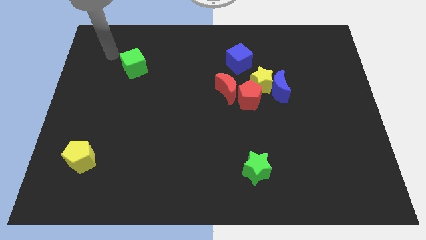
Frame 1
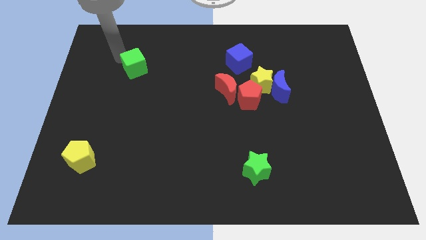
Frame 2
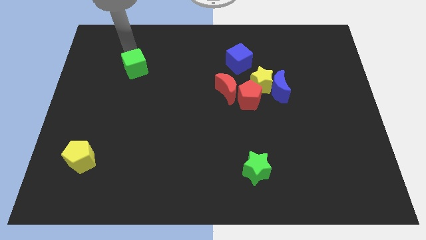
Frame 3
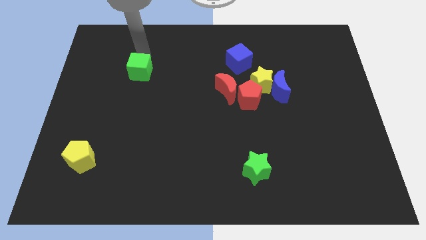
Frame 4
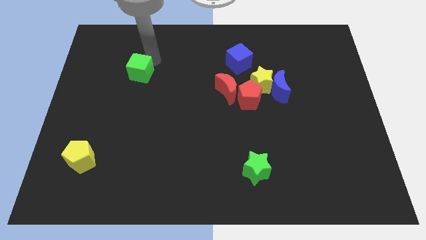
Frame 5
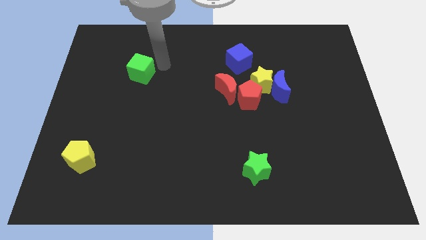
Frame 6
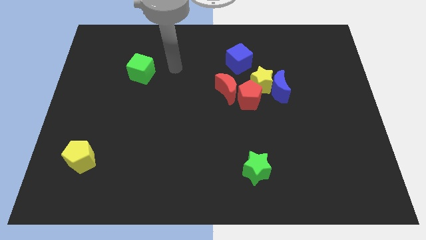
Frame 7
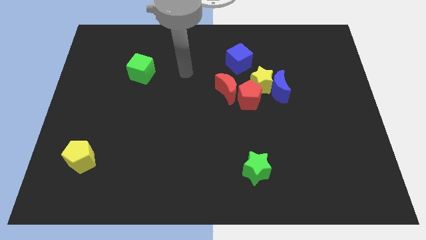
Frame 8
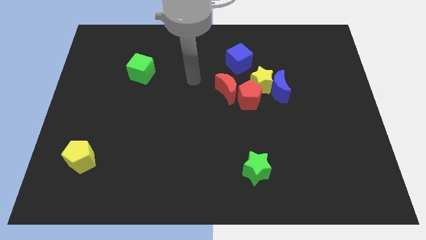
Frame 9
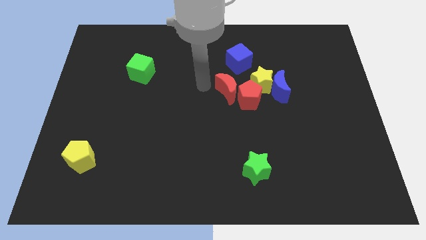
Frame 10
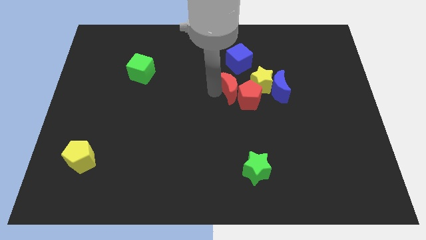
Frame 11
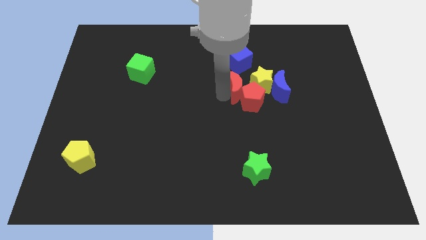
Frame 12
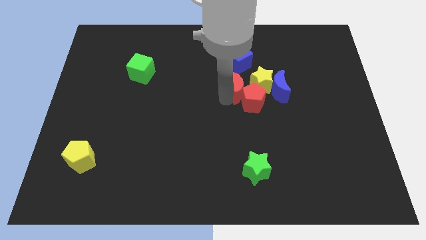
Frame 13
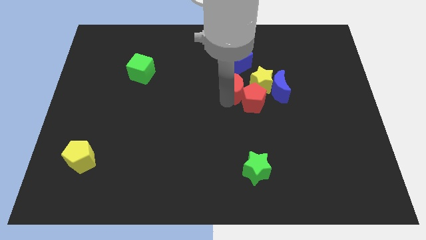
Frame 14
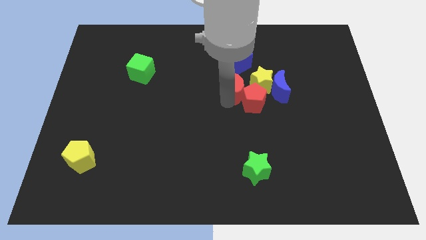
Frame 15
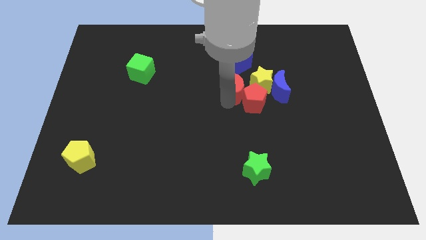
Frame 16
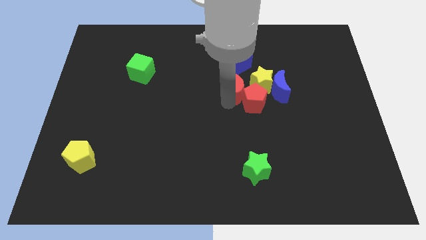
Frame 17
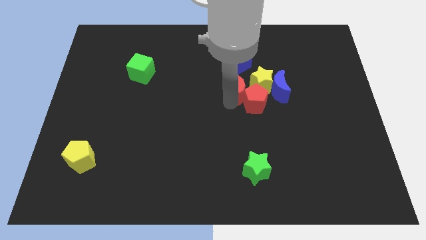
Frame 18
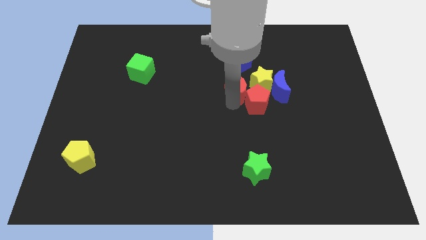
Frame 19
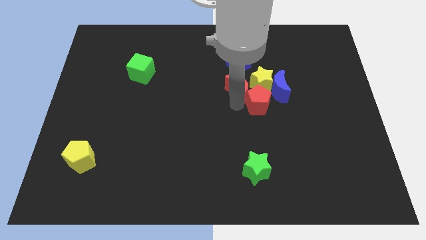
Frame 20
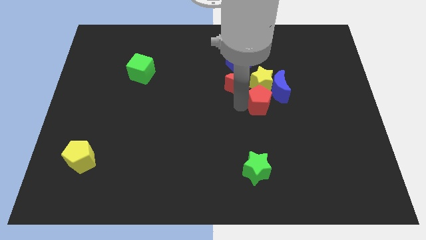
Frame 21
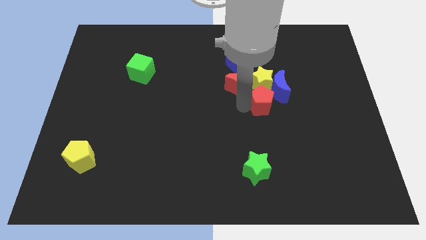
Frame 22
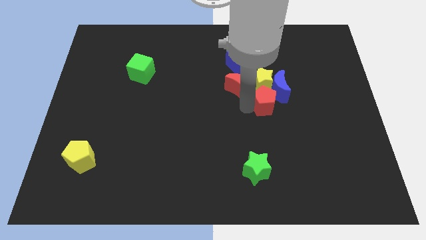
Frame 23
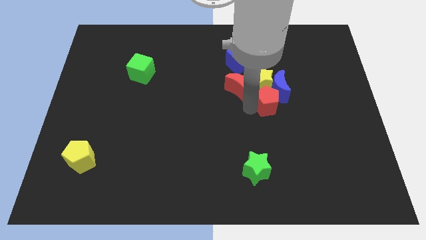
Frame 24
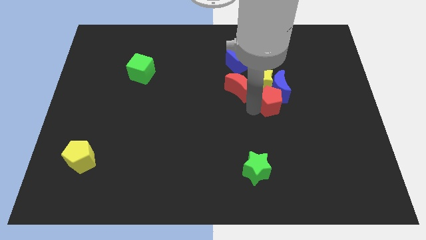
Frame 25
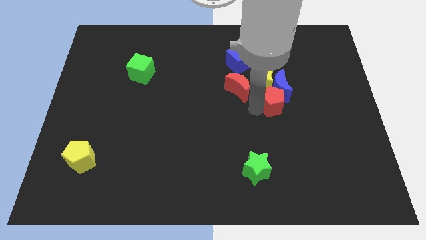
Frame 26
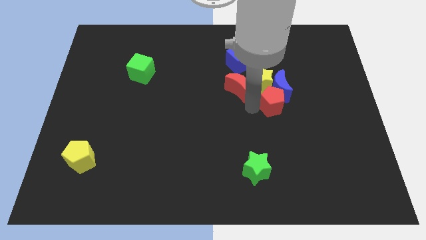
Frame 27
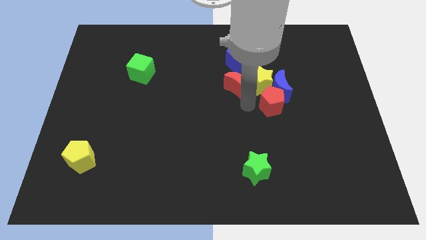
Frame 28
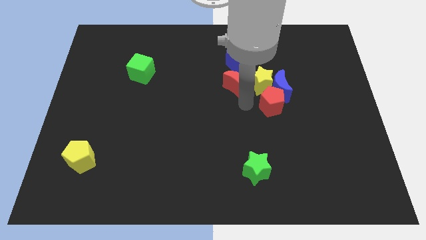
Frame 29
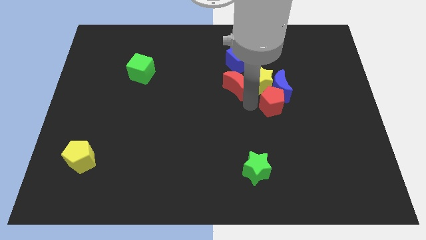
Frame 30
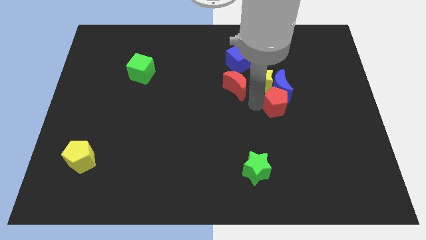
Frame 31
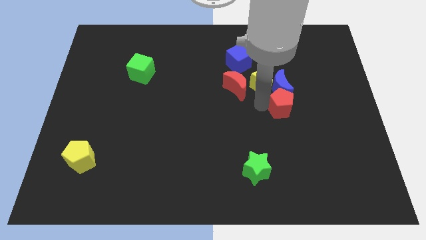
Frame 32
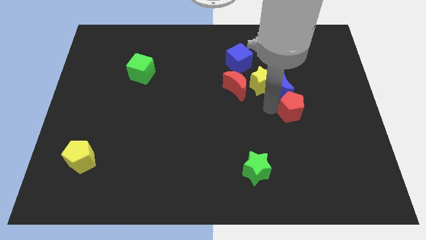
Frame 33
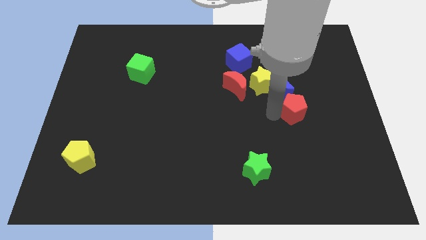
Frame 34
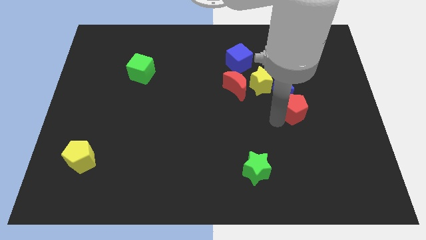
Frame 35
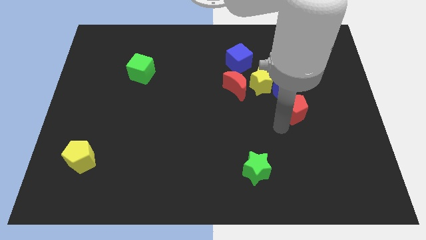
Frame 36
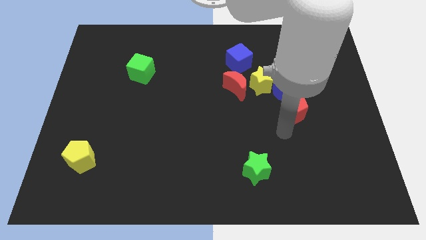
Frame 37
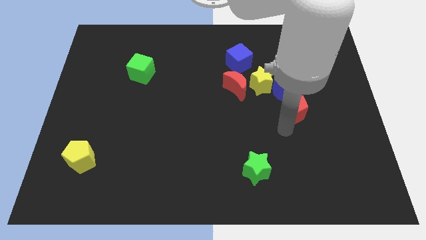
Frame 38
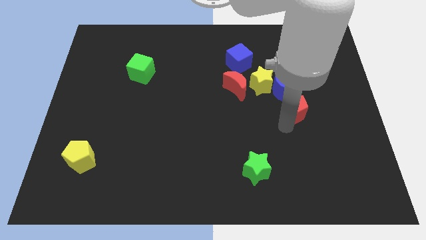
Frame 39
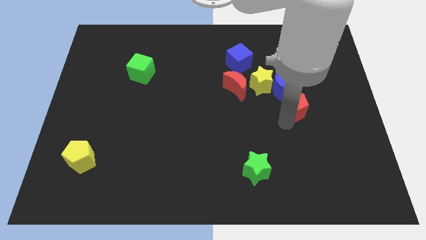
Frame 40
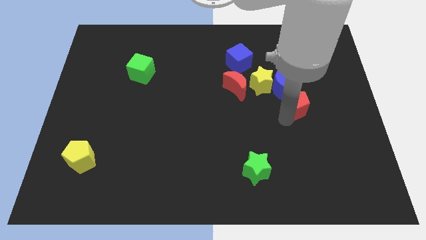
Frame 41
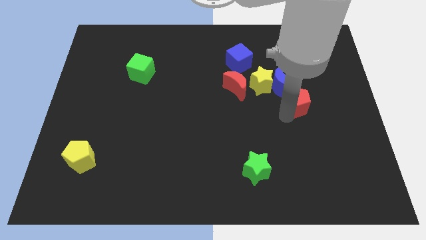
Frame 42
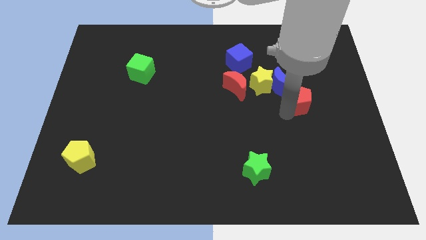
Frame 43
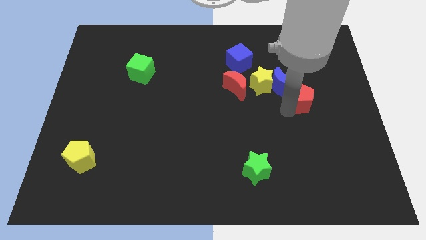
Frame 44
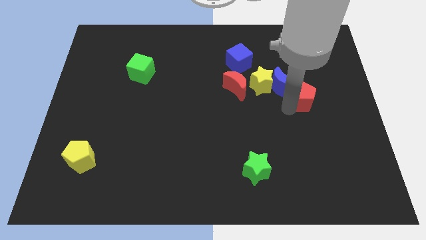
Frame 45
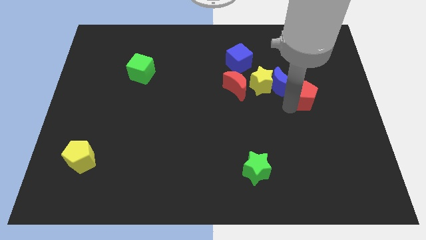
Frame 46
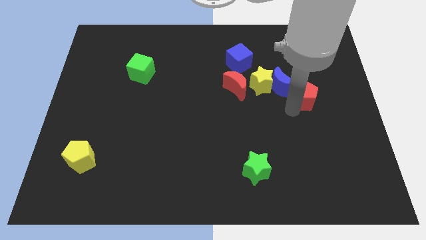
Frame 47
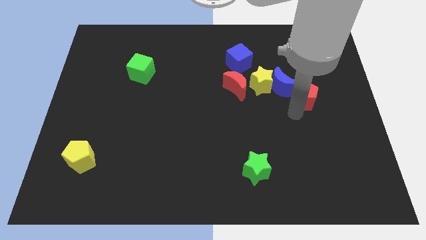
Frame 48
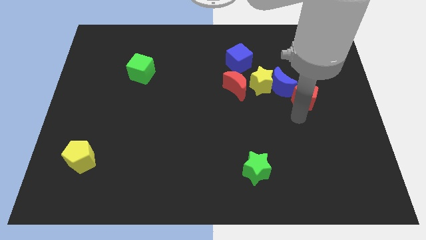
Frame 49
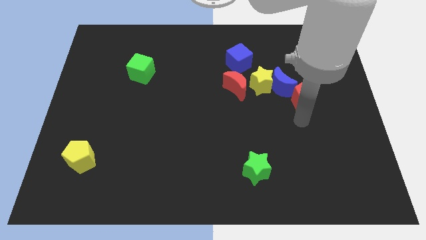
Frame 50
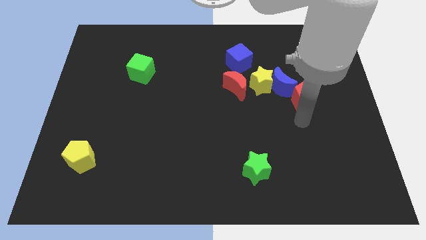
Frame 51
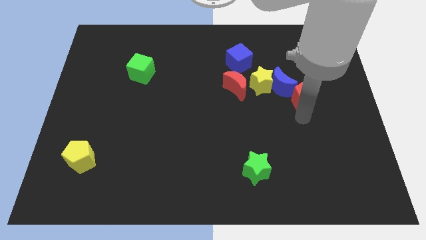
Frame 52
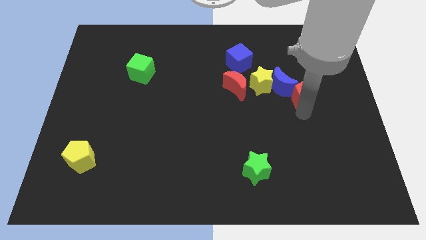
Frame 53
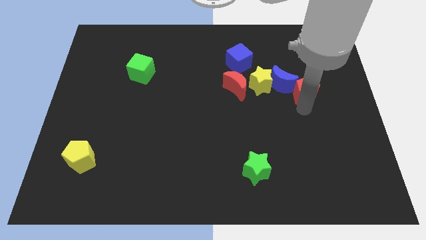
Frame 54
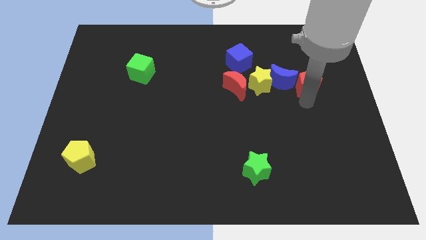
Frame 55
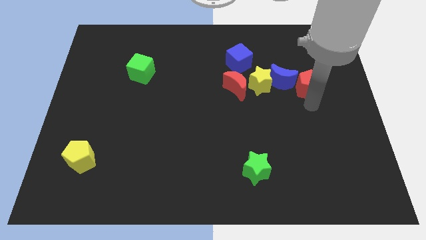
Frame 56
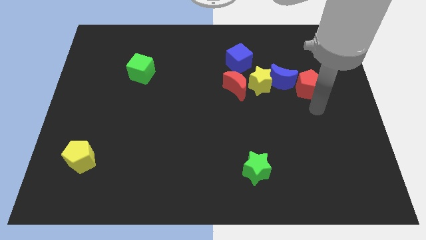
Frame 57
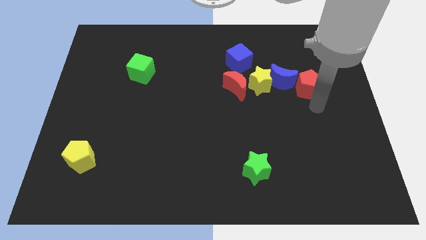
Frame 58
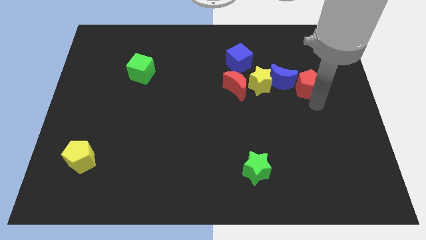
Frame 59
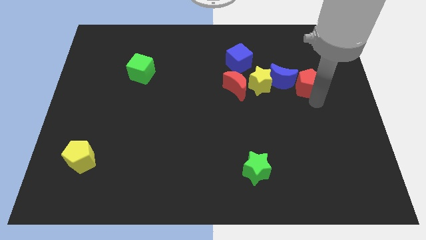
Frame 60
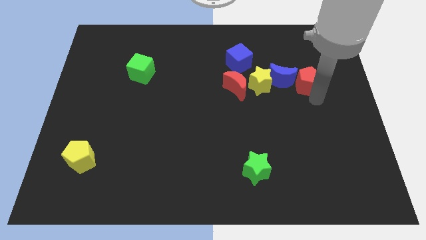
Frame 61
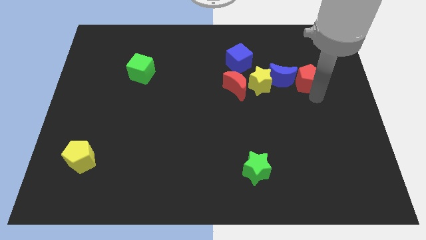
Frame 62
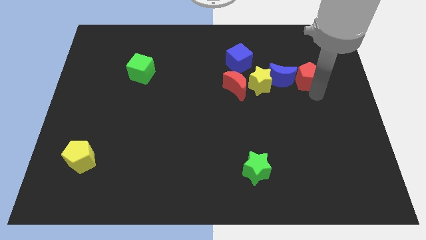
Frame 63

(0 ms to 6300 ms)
move the red pentagon diagonally up and to the right of the blue moon

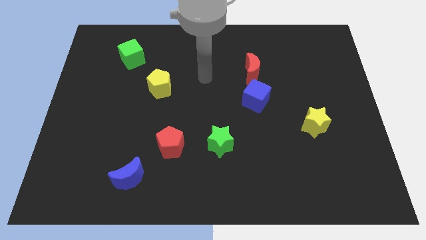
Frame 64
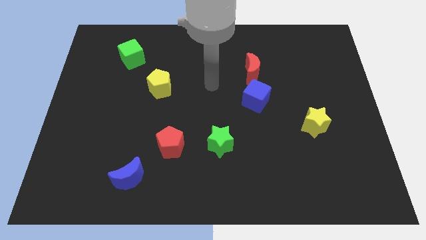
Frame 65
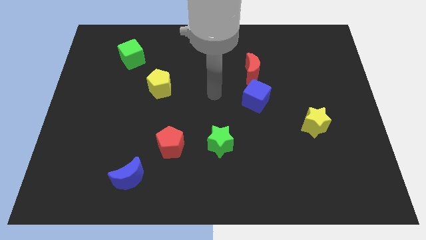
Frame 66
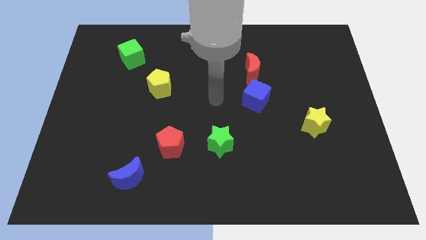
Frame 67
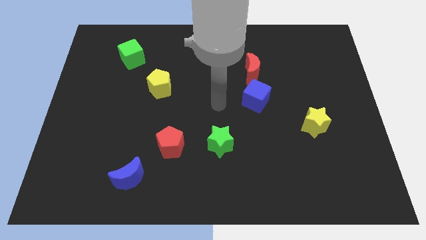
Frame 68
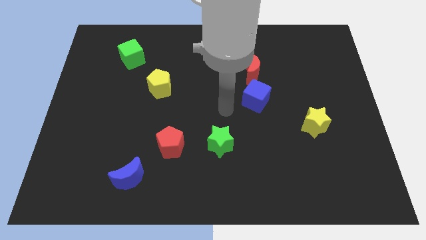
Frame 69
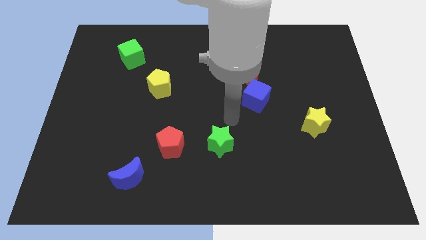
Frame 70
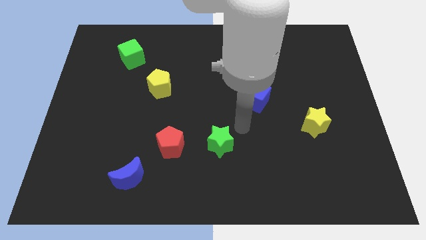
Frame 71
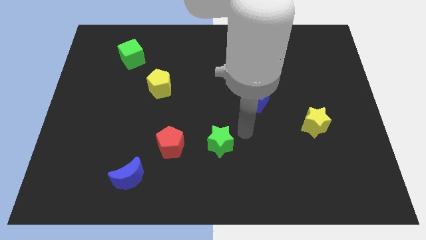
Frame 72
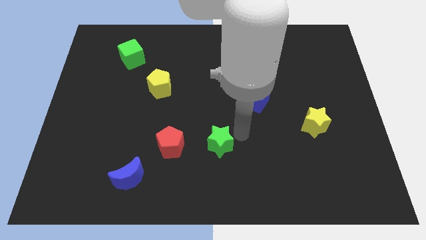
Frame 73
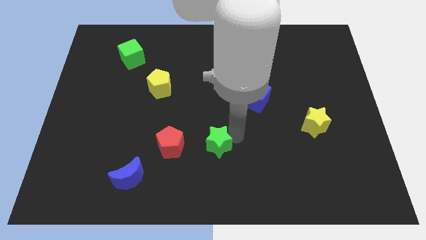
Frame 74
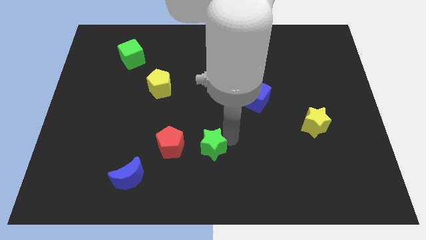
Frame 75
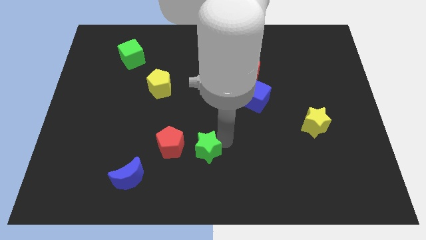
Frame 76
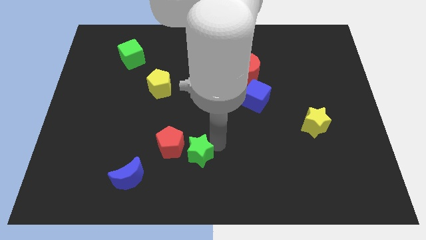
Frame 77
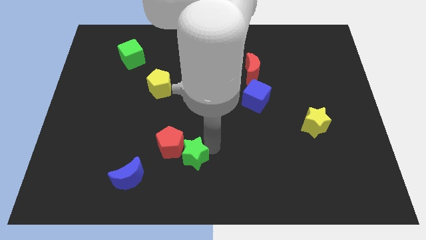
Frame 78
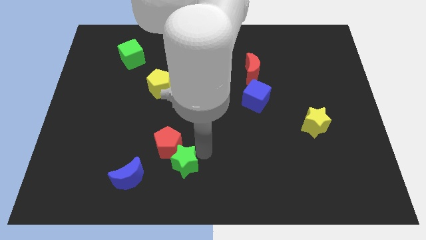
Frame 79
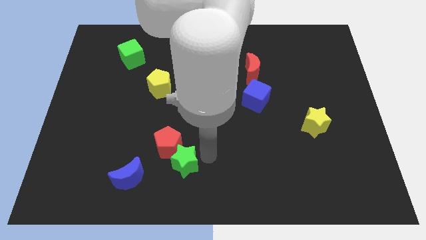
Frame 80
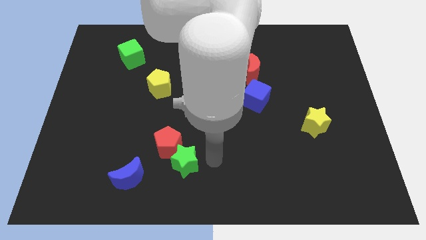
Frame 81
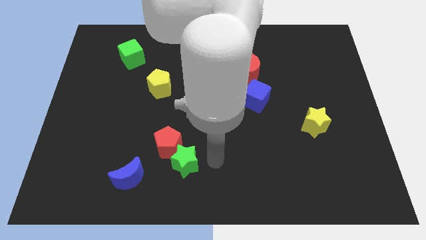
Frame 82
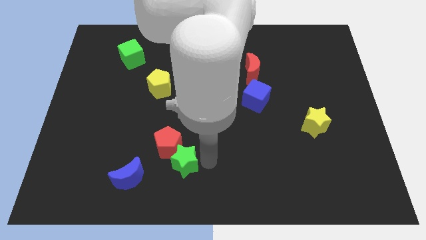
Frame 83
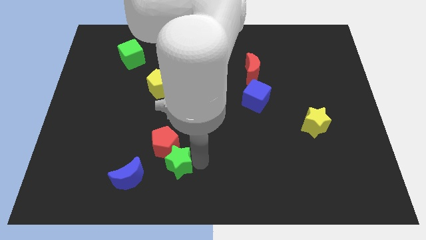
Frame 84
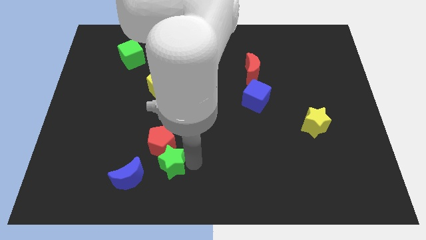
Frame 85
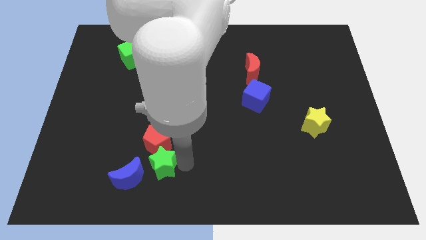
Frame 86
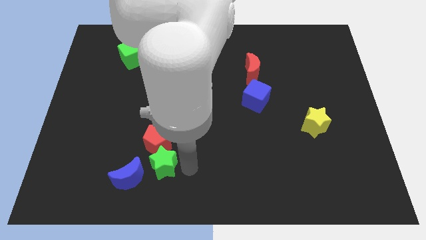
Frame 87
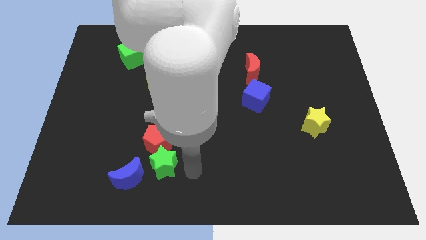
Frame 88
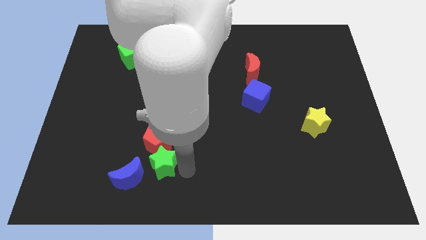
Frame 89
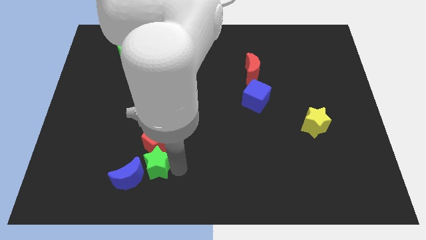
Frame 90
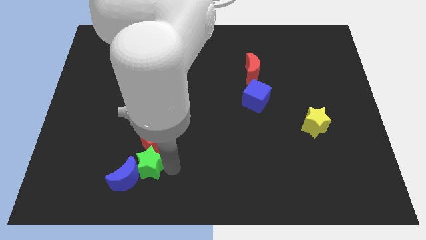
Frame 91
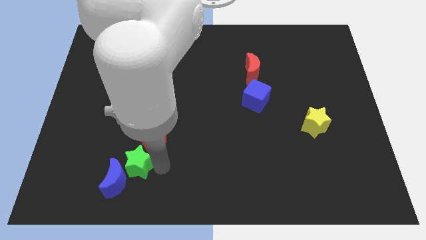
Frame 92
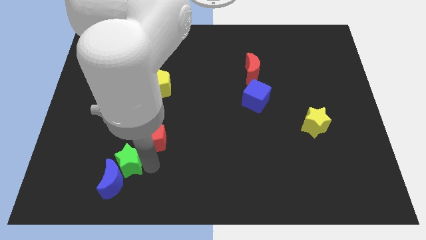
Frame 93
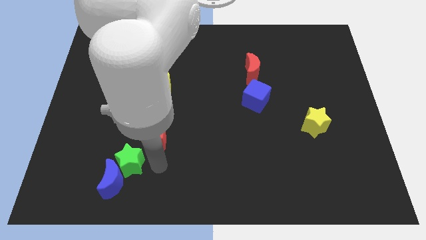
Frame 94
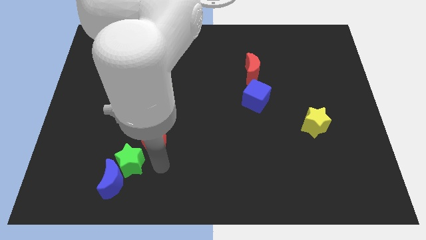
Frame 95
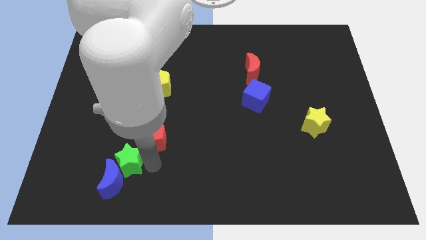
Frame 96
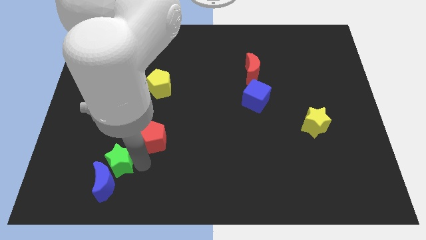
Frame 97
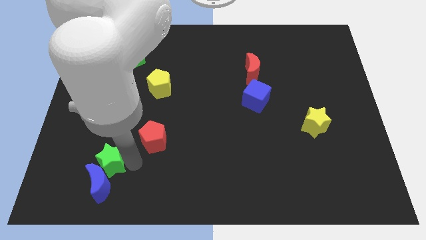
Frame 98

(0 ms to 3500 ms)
slide the green star to the top left of the blue moon
